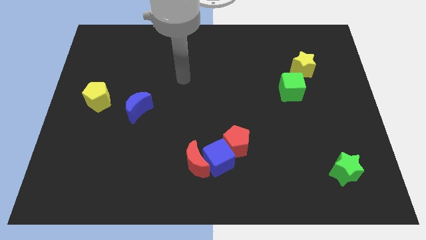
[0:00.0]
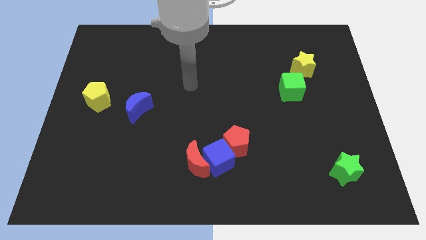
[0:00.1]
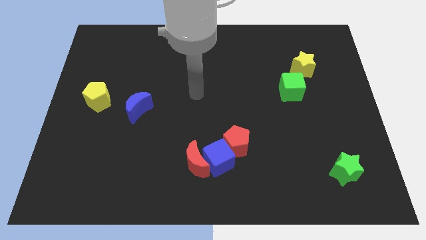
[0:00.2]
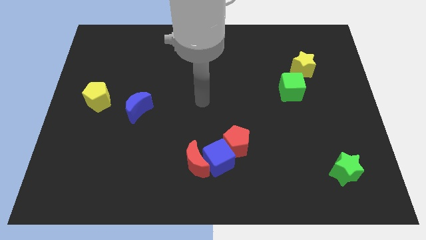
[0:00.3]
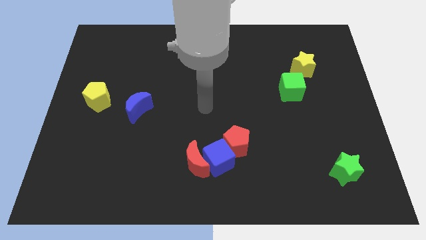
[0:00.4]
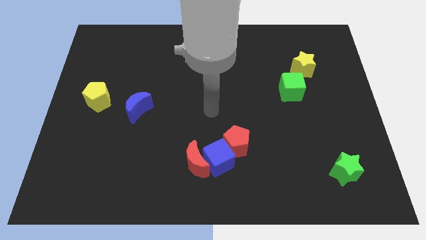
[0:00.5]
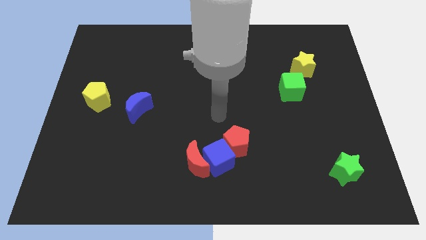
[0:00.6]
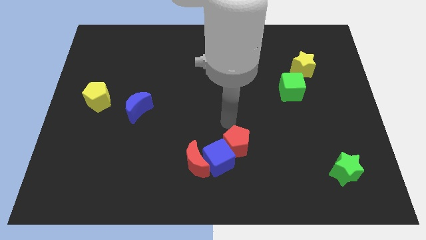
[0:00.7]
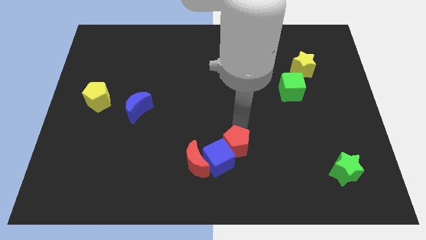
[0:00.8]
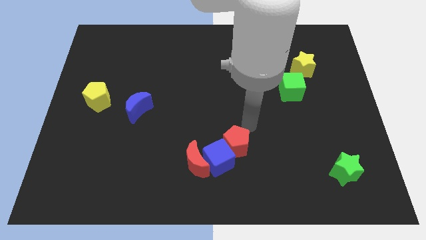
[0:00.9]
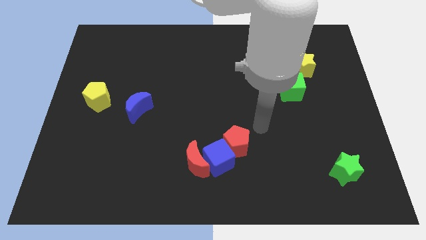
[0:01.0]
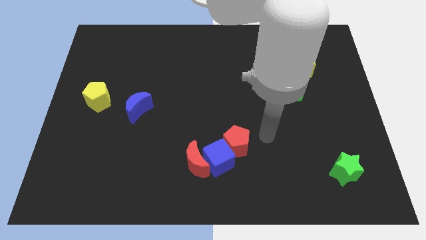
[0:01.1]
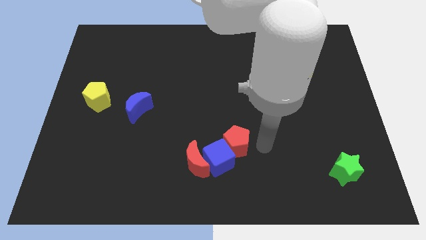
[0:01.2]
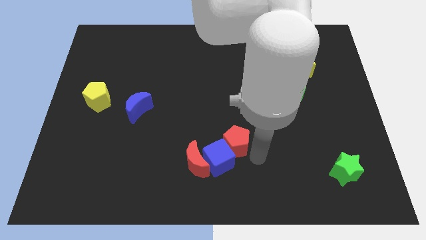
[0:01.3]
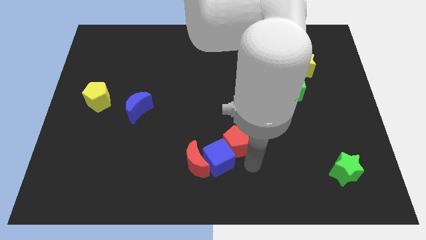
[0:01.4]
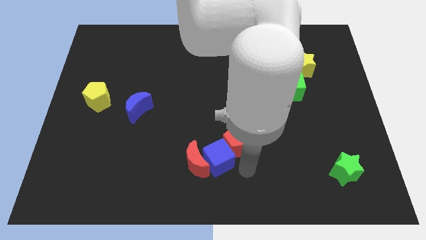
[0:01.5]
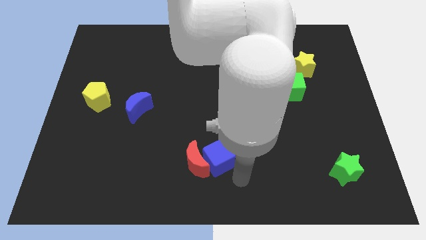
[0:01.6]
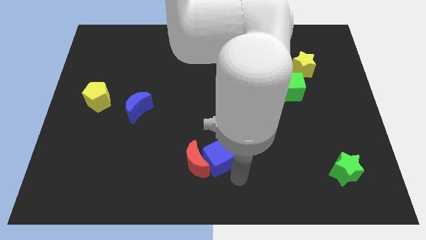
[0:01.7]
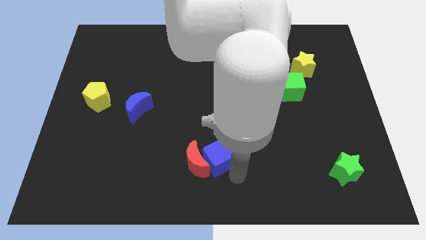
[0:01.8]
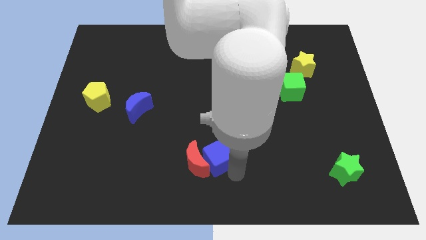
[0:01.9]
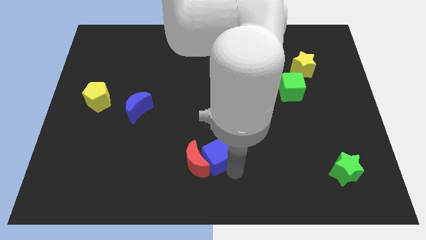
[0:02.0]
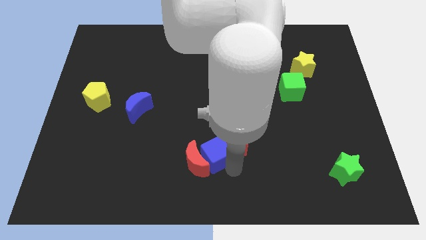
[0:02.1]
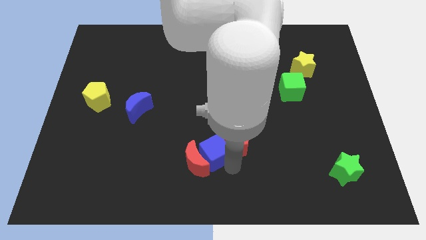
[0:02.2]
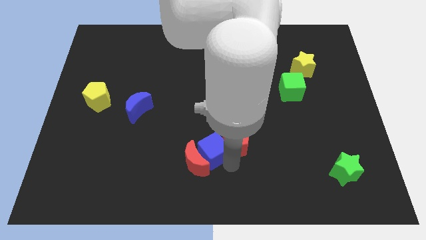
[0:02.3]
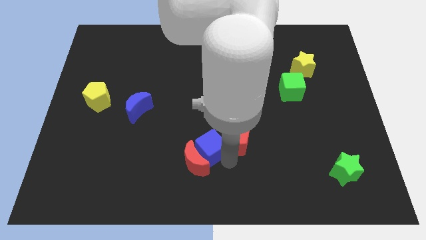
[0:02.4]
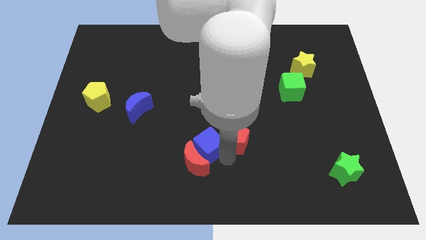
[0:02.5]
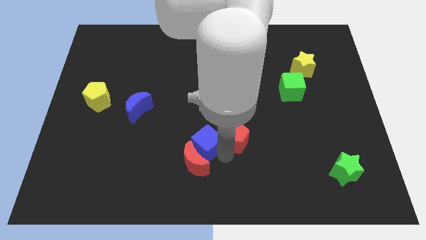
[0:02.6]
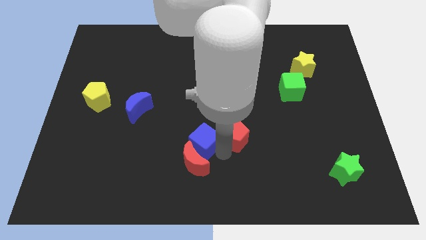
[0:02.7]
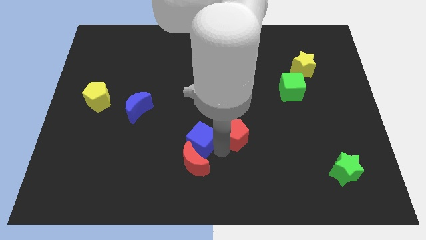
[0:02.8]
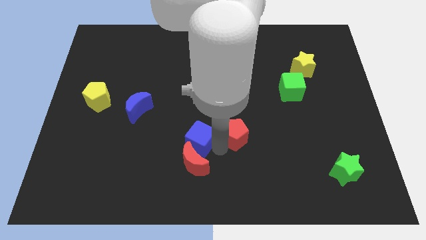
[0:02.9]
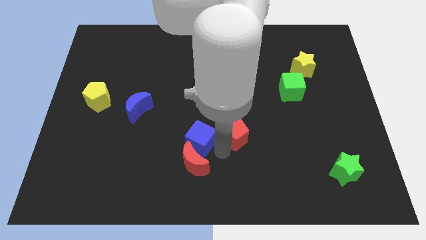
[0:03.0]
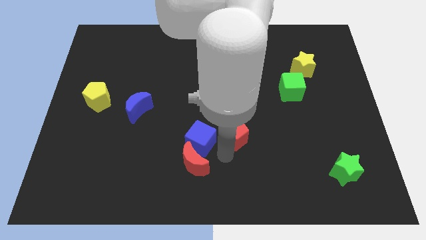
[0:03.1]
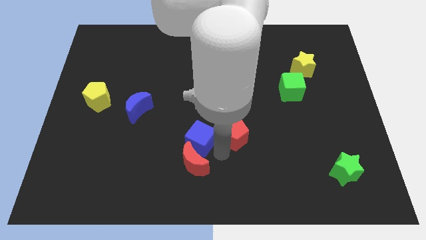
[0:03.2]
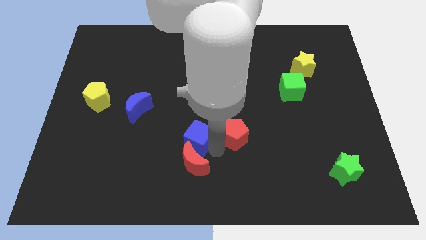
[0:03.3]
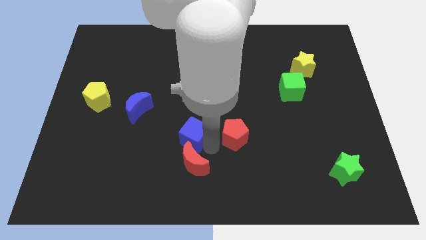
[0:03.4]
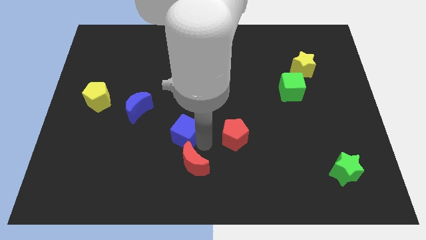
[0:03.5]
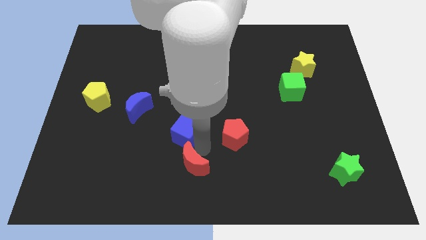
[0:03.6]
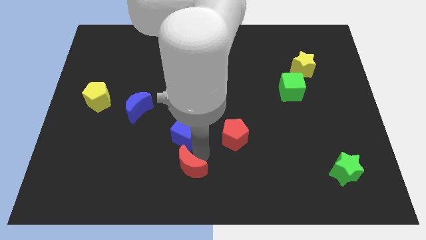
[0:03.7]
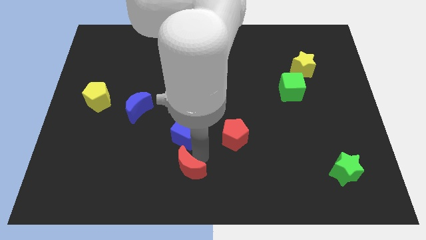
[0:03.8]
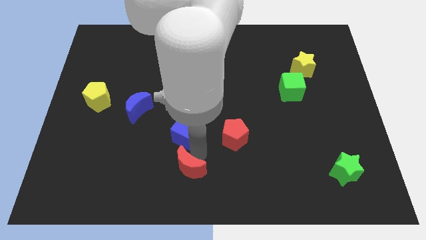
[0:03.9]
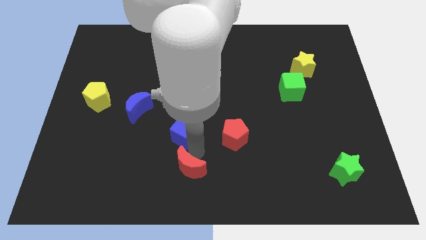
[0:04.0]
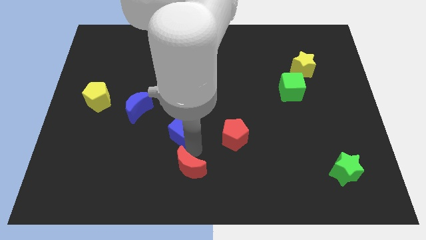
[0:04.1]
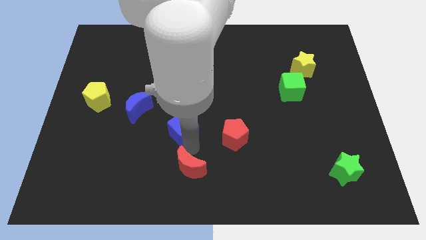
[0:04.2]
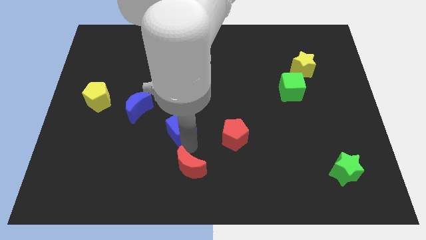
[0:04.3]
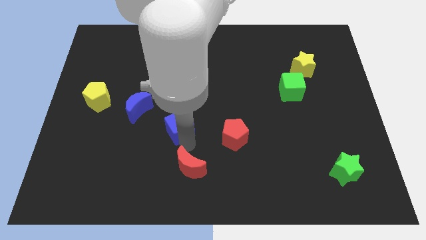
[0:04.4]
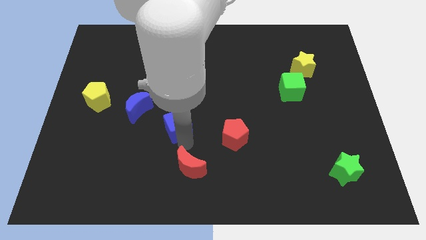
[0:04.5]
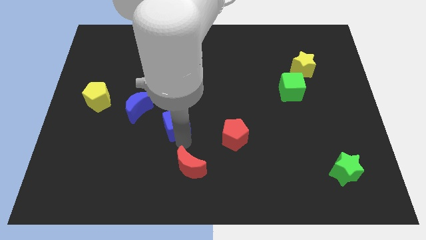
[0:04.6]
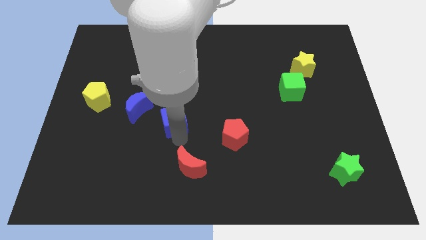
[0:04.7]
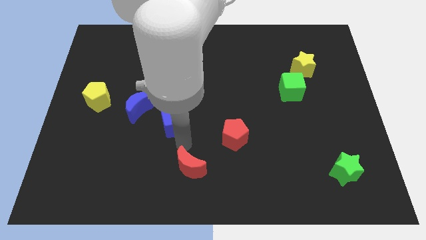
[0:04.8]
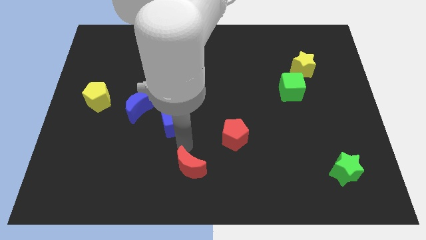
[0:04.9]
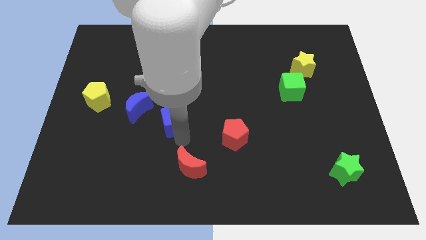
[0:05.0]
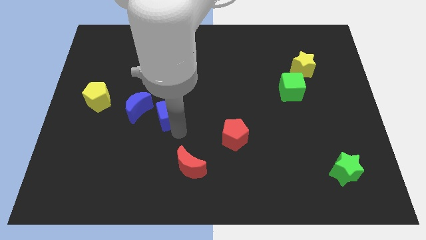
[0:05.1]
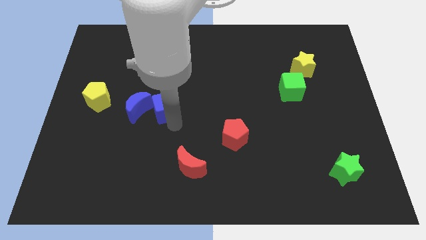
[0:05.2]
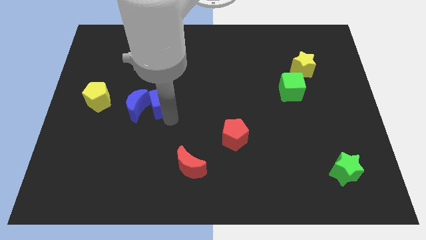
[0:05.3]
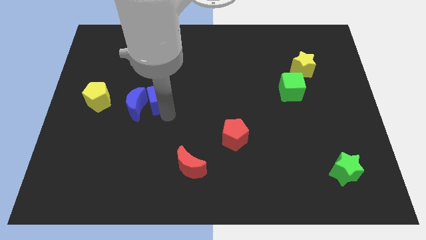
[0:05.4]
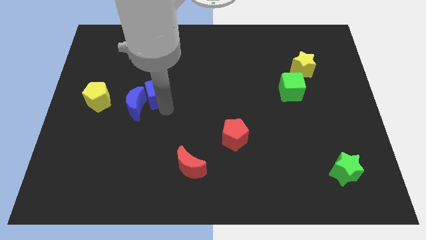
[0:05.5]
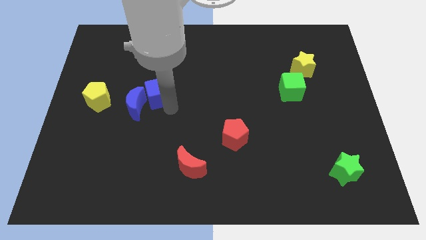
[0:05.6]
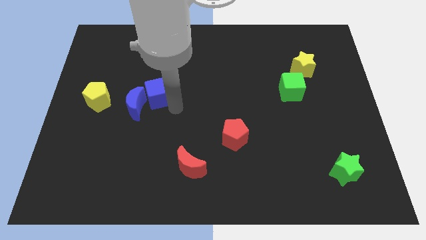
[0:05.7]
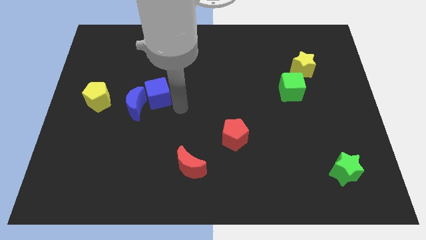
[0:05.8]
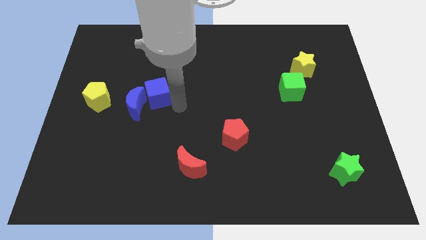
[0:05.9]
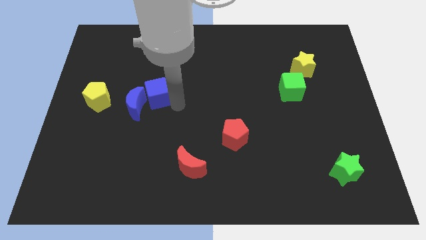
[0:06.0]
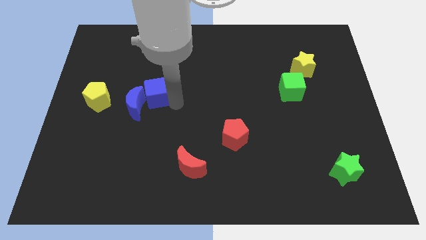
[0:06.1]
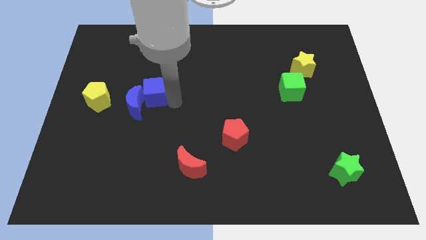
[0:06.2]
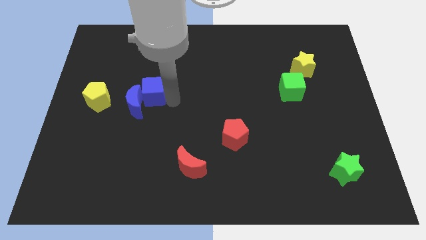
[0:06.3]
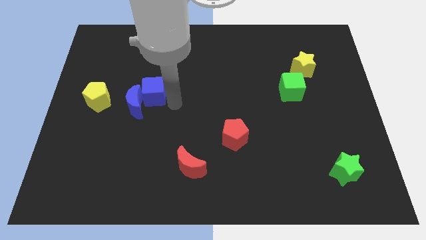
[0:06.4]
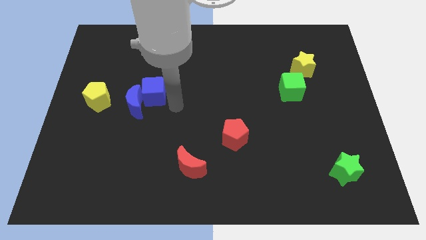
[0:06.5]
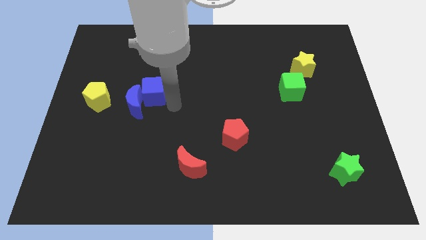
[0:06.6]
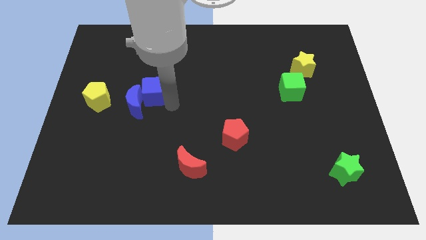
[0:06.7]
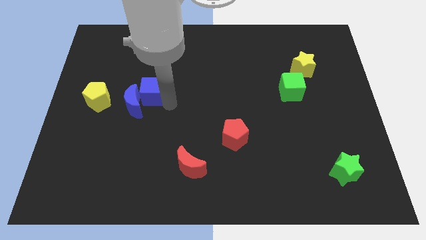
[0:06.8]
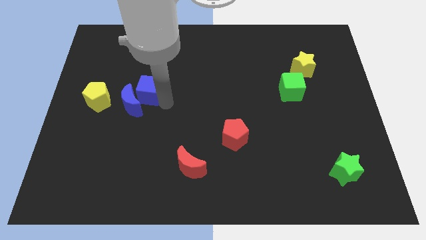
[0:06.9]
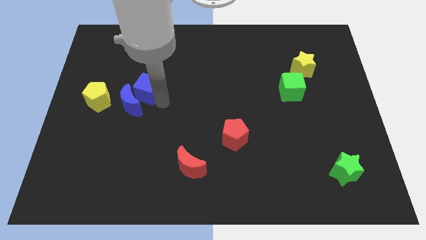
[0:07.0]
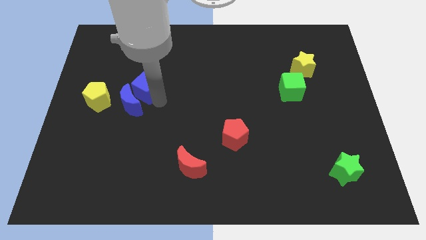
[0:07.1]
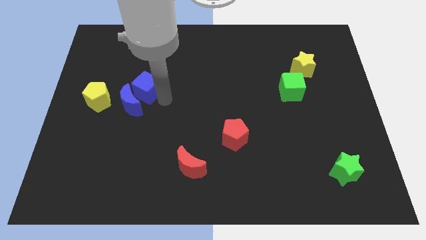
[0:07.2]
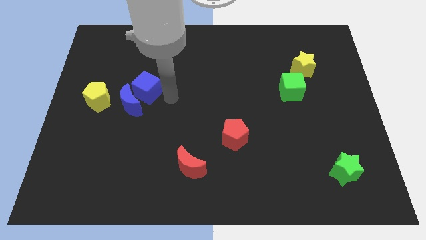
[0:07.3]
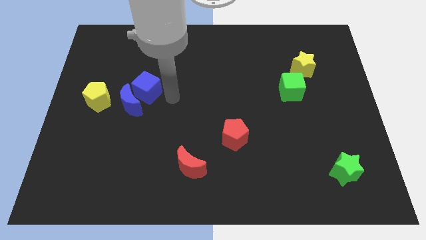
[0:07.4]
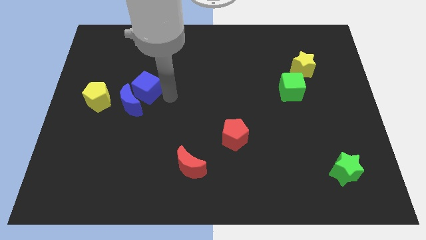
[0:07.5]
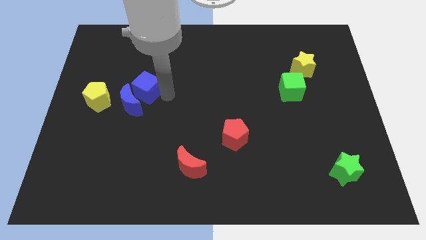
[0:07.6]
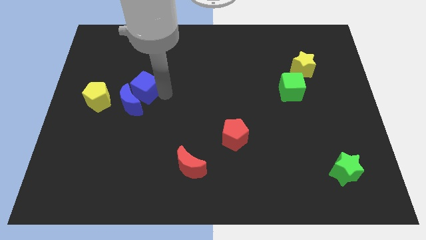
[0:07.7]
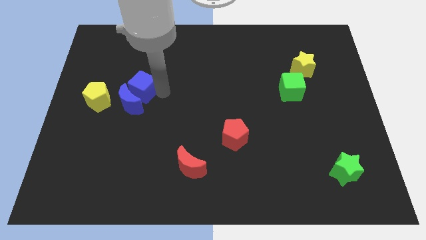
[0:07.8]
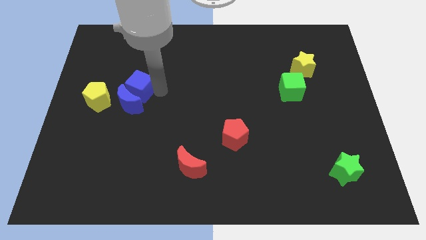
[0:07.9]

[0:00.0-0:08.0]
move the blue cube to the top right side of the yellow pentagon
